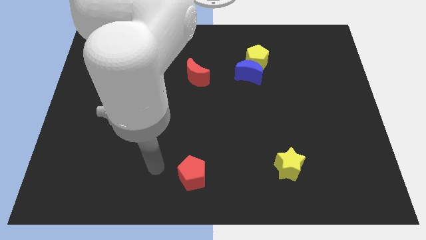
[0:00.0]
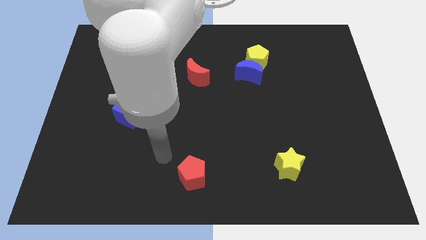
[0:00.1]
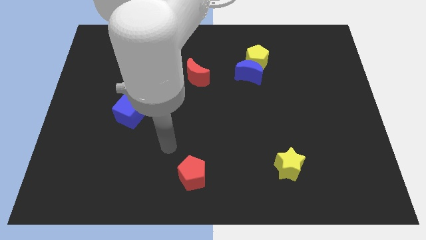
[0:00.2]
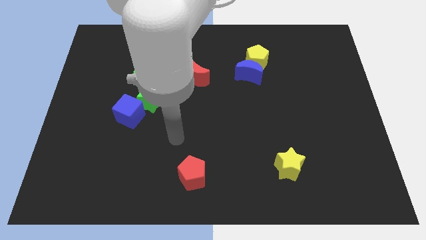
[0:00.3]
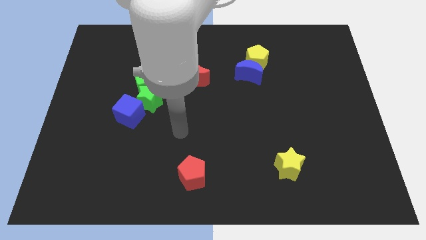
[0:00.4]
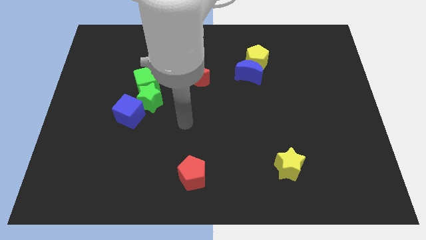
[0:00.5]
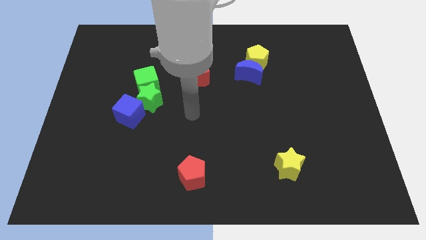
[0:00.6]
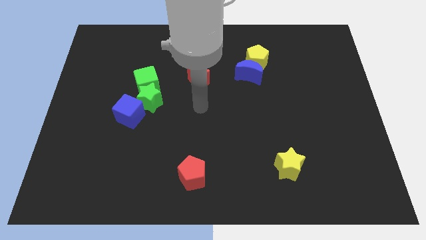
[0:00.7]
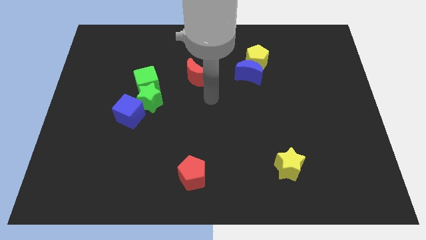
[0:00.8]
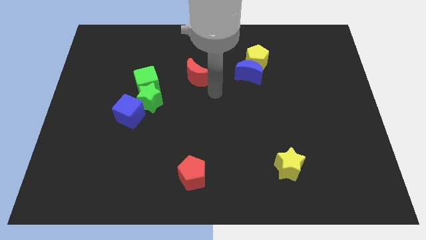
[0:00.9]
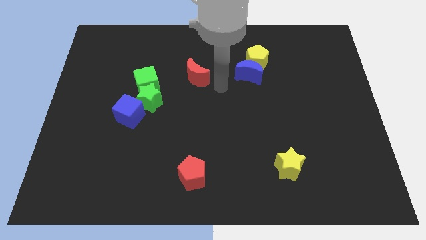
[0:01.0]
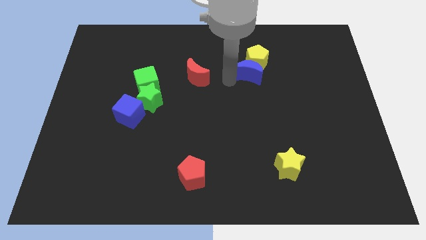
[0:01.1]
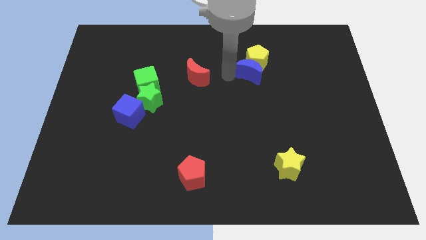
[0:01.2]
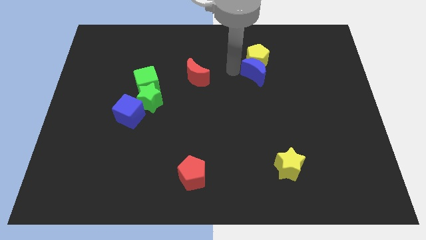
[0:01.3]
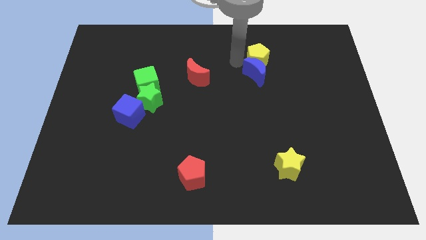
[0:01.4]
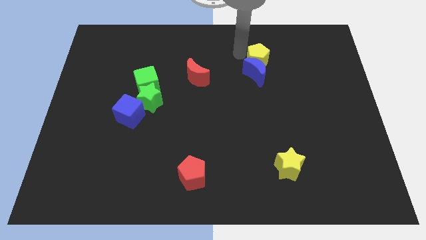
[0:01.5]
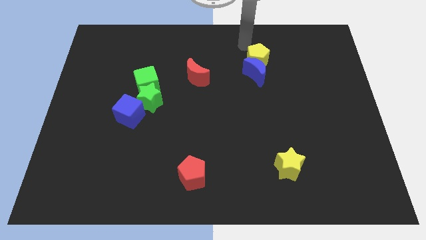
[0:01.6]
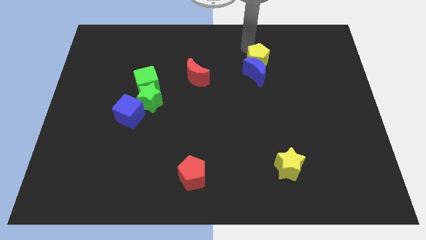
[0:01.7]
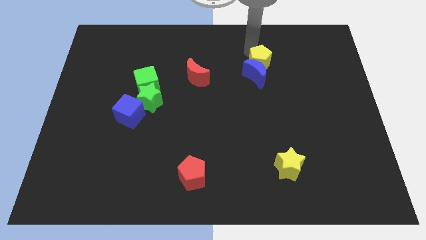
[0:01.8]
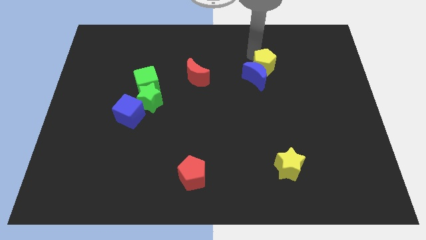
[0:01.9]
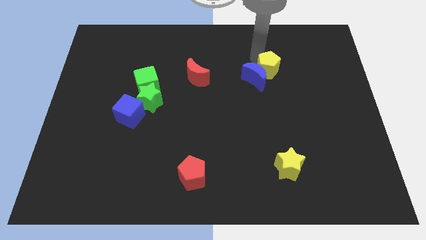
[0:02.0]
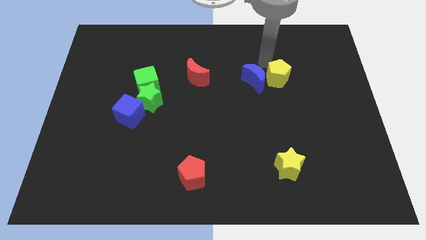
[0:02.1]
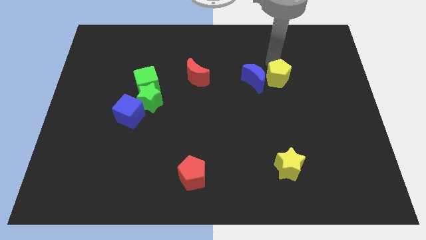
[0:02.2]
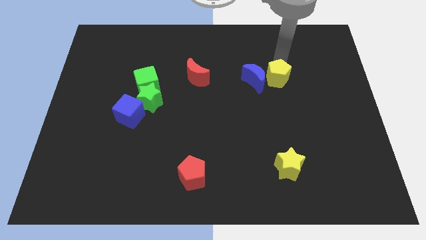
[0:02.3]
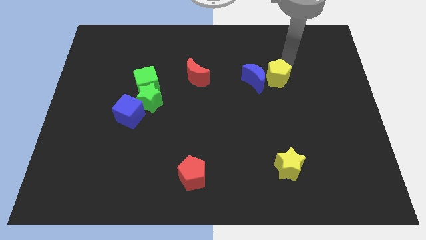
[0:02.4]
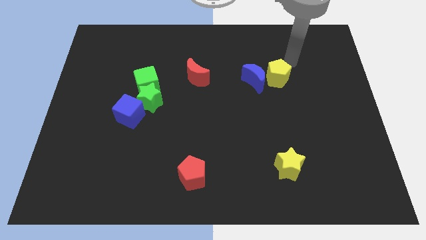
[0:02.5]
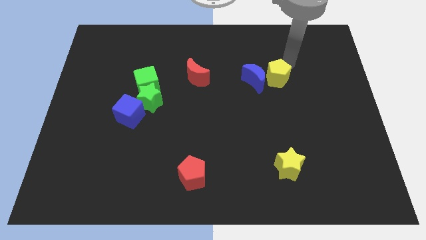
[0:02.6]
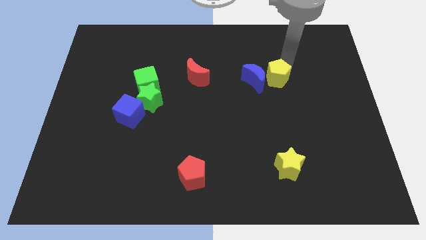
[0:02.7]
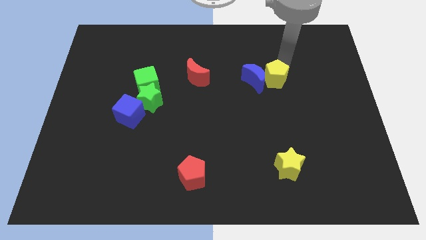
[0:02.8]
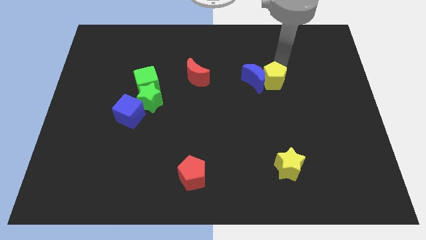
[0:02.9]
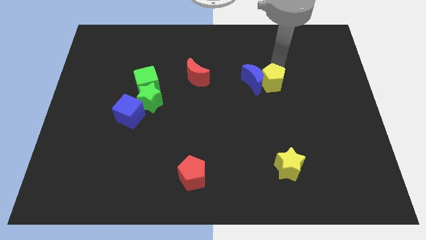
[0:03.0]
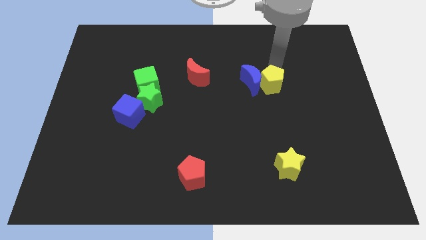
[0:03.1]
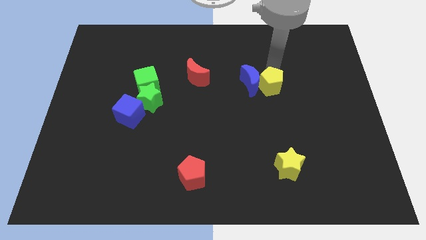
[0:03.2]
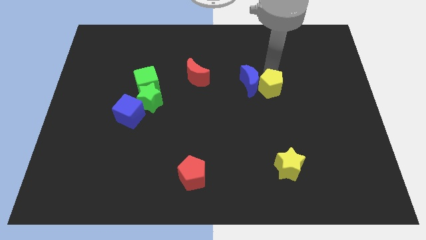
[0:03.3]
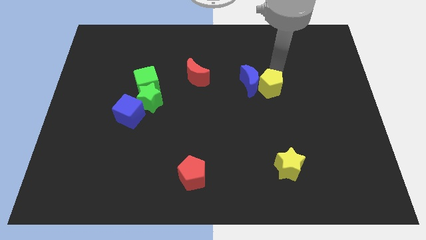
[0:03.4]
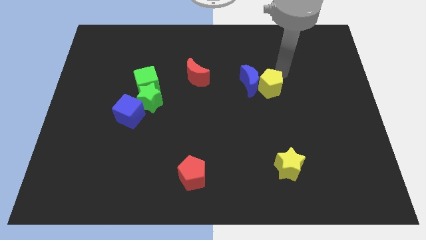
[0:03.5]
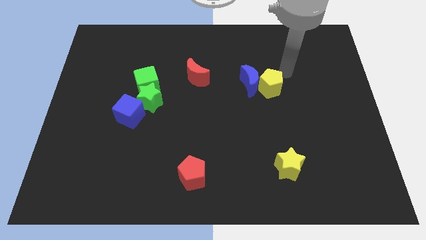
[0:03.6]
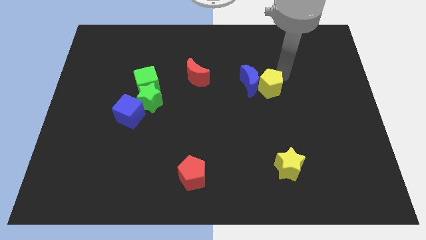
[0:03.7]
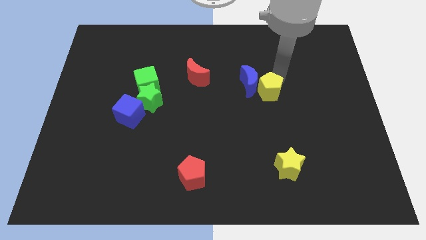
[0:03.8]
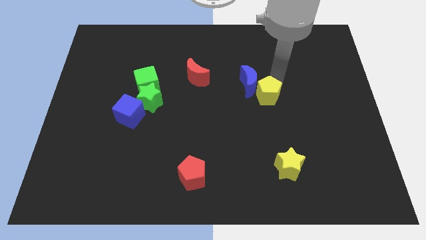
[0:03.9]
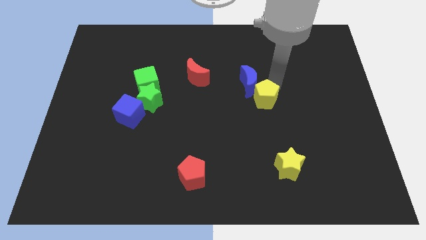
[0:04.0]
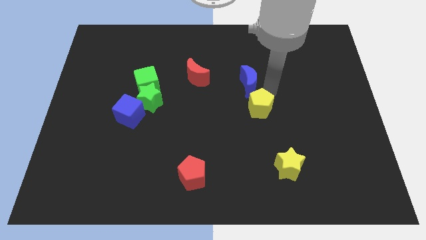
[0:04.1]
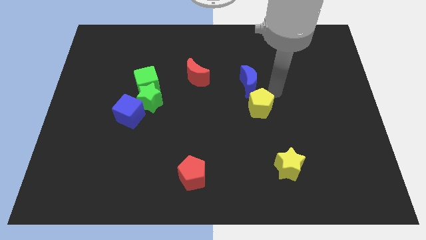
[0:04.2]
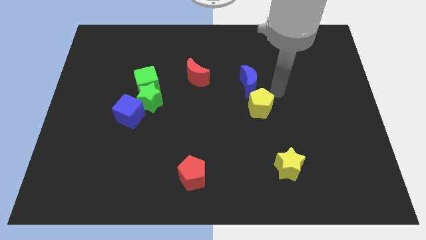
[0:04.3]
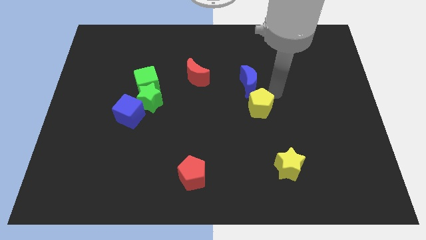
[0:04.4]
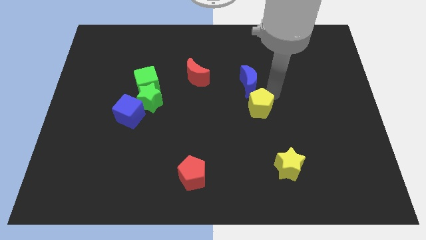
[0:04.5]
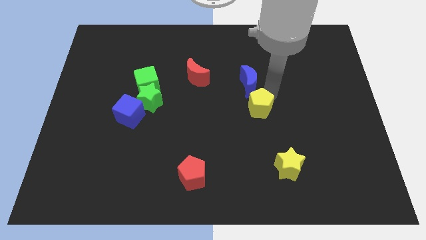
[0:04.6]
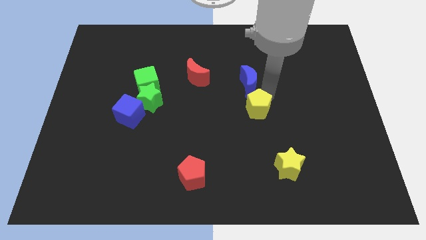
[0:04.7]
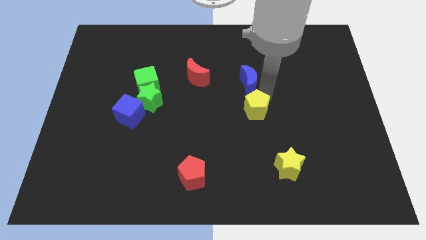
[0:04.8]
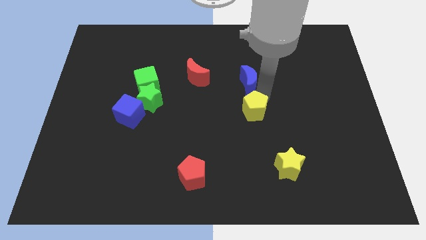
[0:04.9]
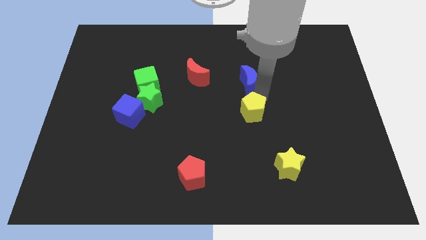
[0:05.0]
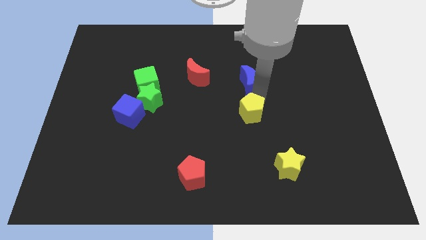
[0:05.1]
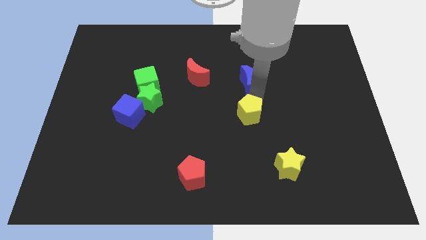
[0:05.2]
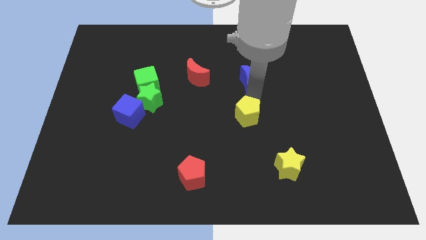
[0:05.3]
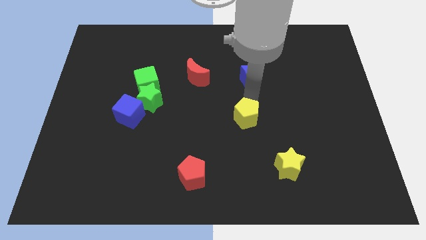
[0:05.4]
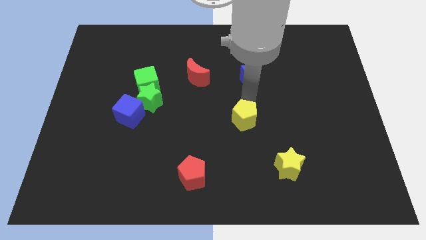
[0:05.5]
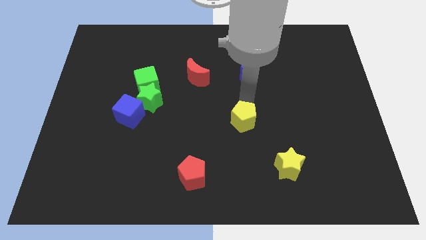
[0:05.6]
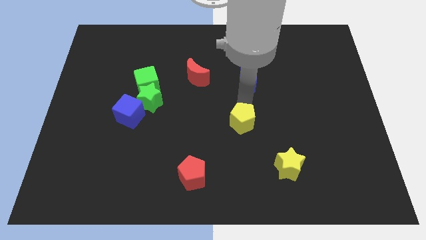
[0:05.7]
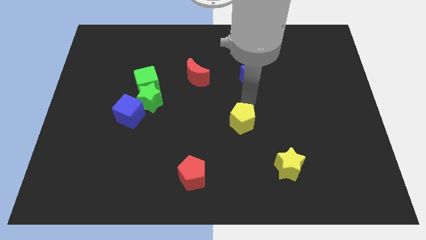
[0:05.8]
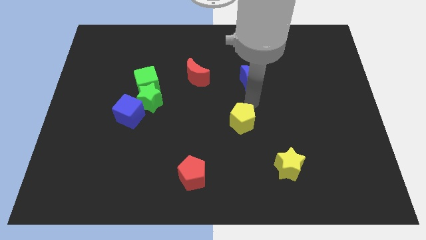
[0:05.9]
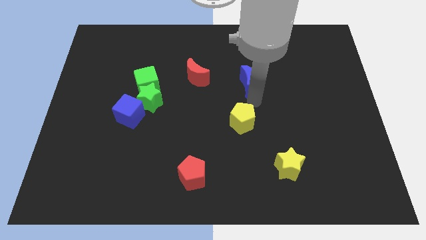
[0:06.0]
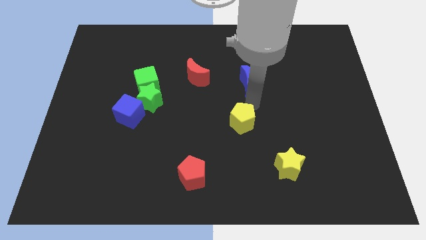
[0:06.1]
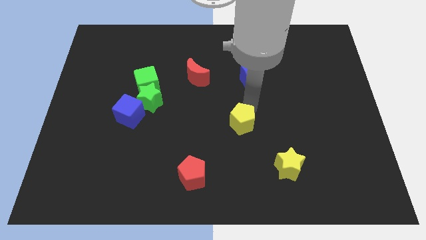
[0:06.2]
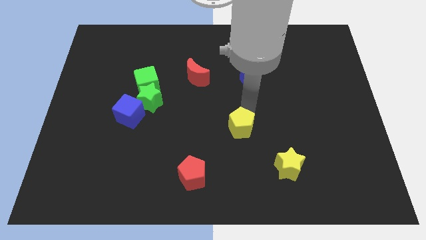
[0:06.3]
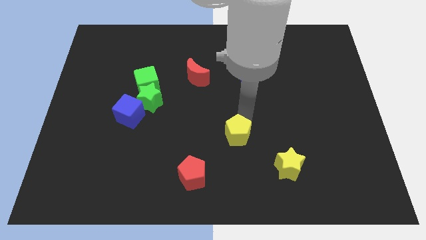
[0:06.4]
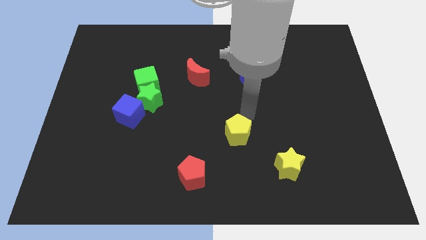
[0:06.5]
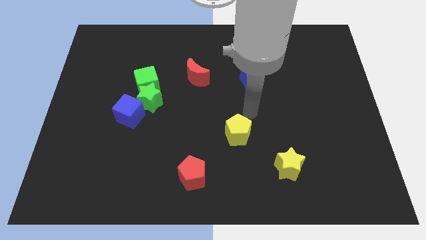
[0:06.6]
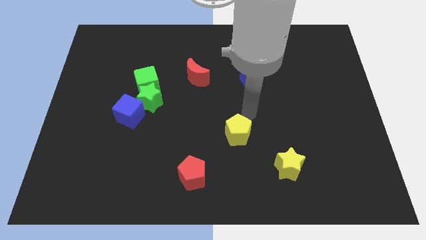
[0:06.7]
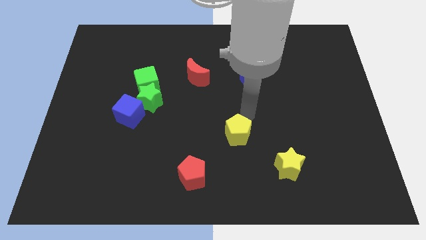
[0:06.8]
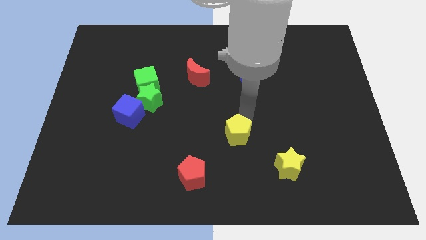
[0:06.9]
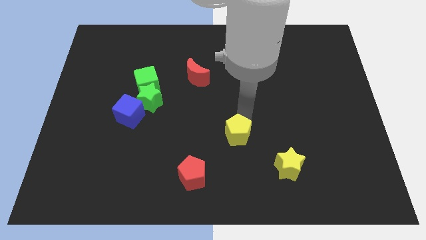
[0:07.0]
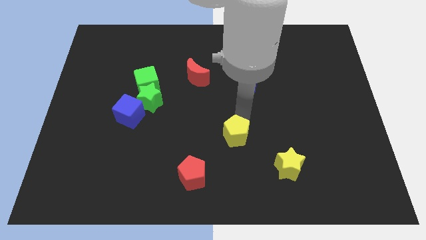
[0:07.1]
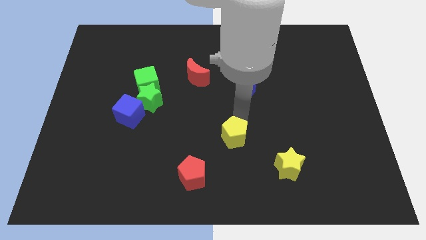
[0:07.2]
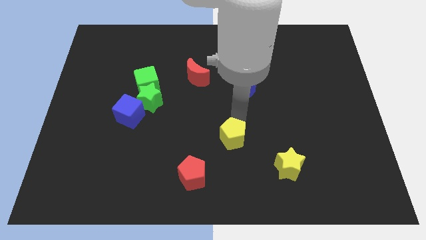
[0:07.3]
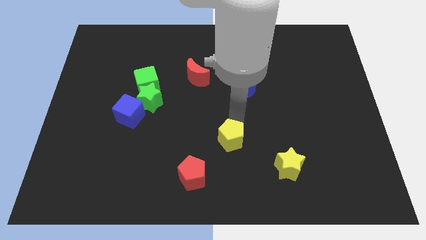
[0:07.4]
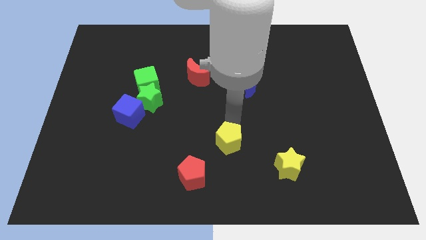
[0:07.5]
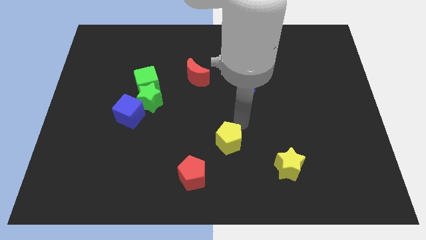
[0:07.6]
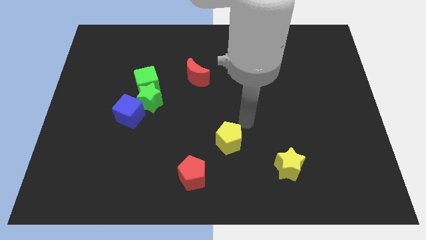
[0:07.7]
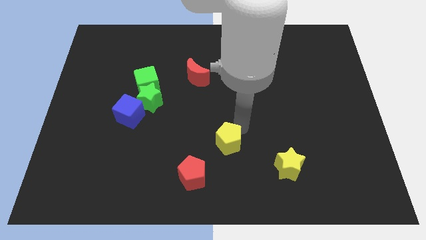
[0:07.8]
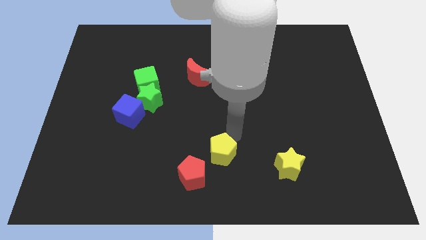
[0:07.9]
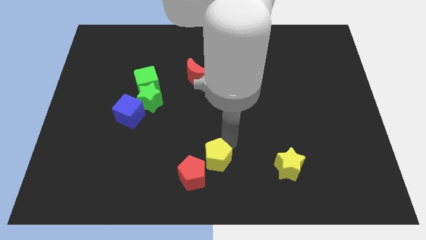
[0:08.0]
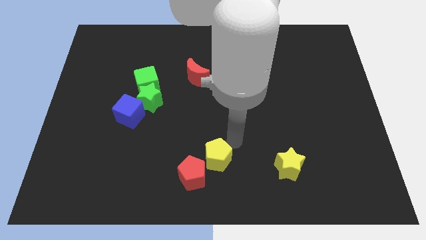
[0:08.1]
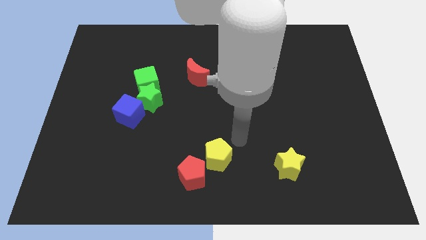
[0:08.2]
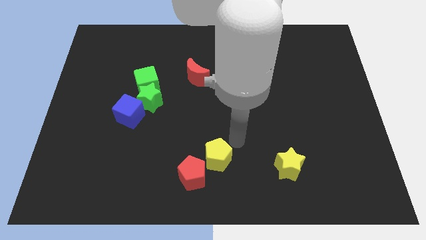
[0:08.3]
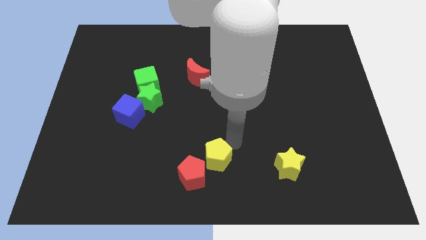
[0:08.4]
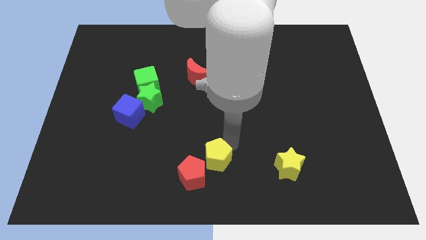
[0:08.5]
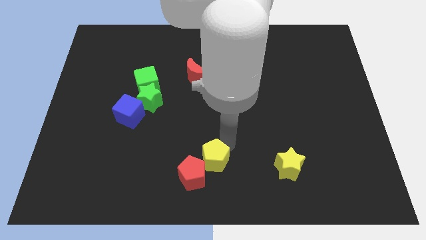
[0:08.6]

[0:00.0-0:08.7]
slide the yellow pentagon next to the red pentagon
